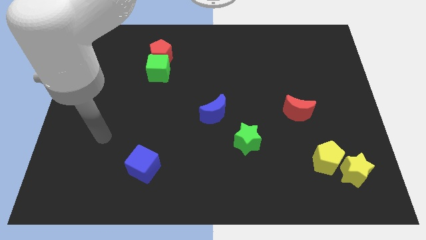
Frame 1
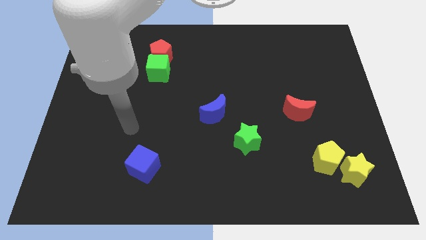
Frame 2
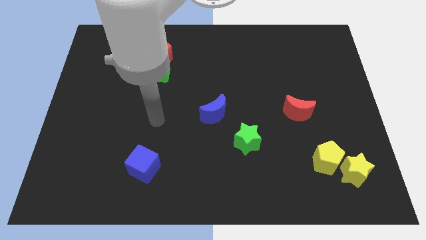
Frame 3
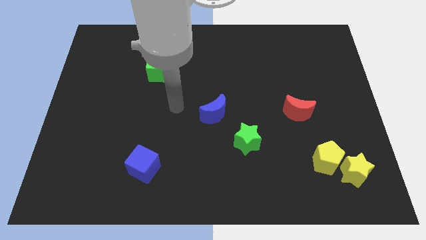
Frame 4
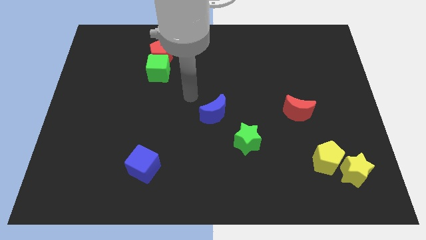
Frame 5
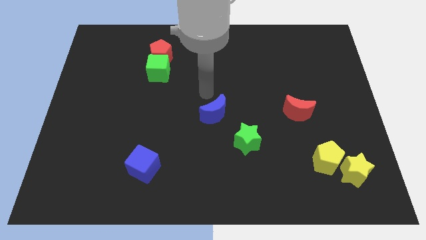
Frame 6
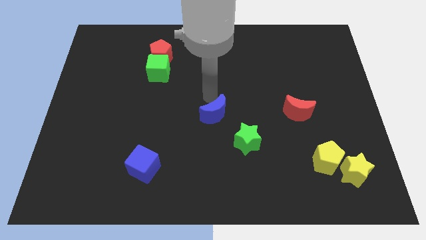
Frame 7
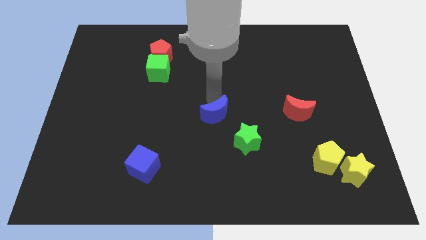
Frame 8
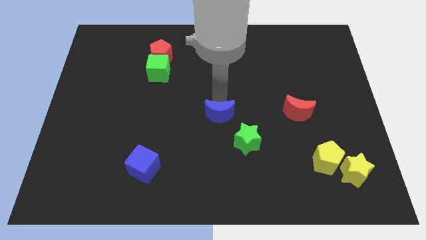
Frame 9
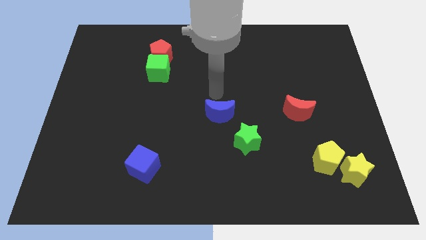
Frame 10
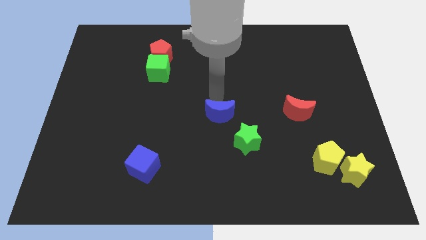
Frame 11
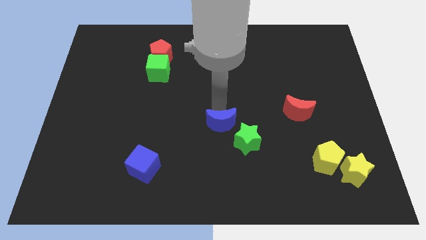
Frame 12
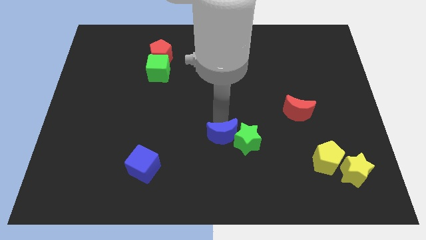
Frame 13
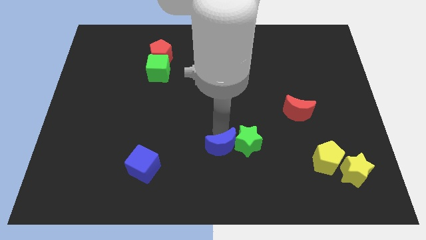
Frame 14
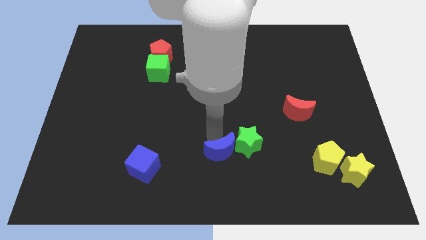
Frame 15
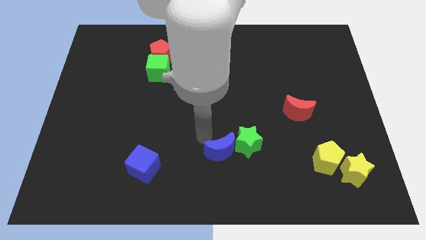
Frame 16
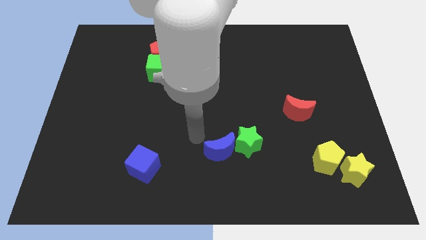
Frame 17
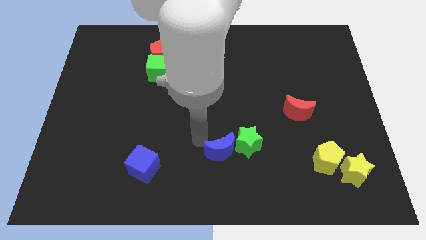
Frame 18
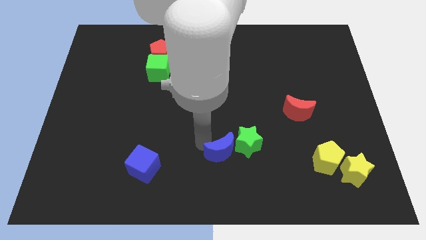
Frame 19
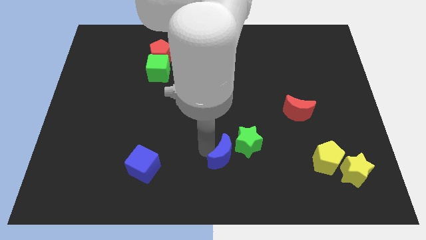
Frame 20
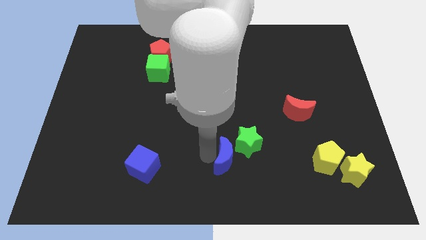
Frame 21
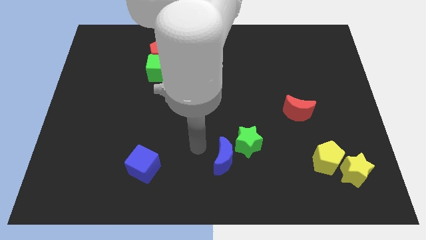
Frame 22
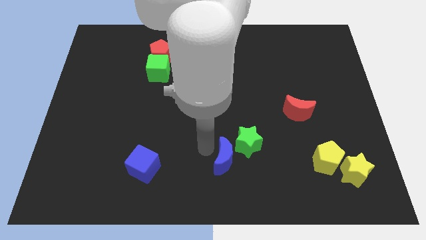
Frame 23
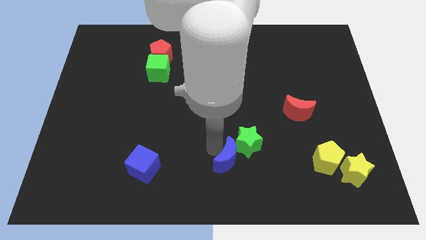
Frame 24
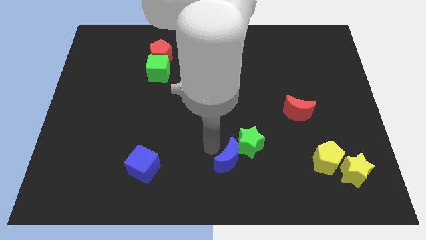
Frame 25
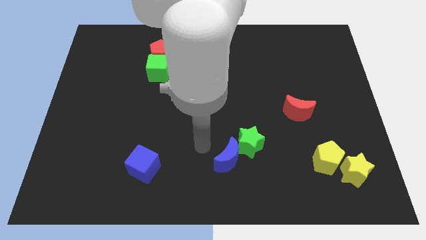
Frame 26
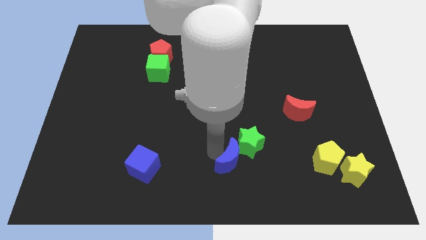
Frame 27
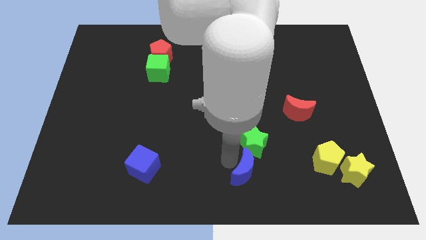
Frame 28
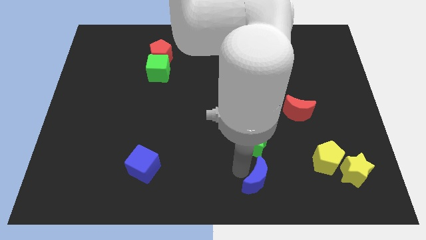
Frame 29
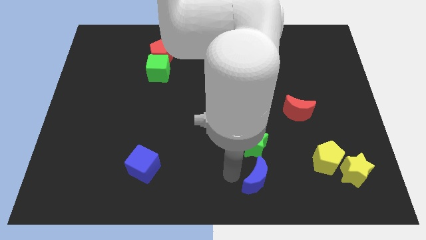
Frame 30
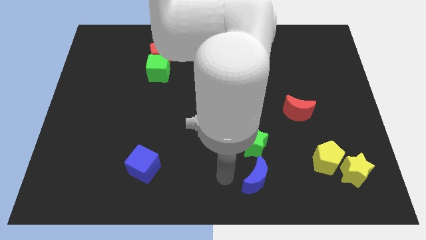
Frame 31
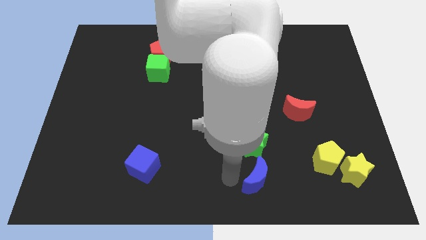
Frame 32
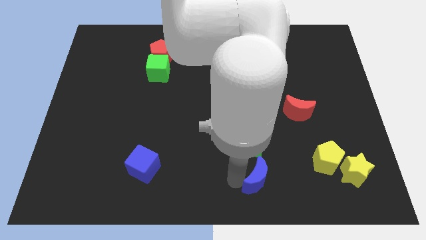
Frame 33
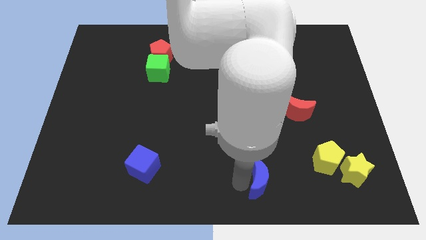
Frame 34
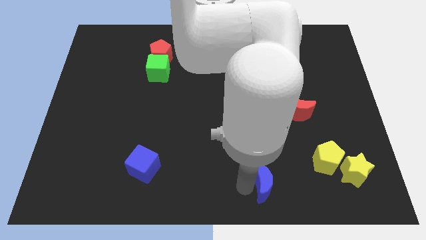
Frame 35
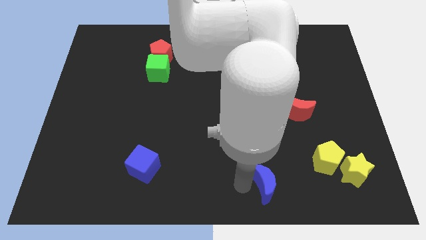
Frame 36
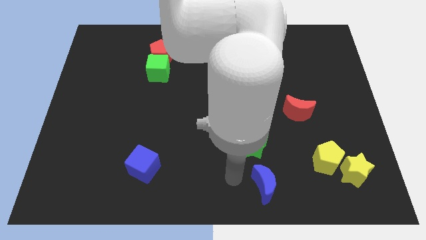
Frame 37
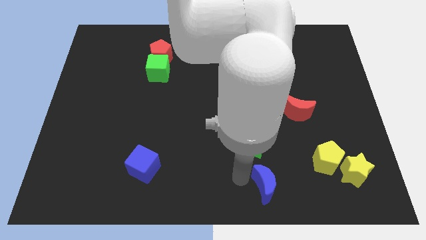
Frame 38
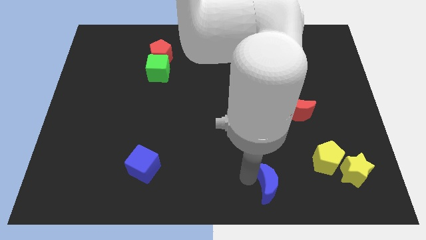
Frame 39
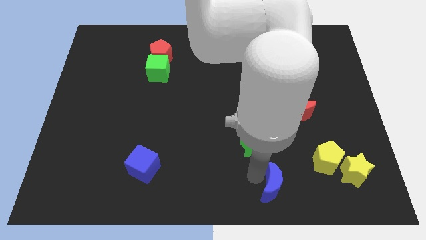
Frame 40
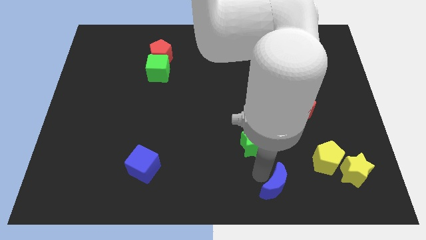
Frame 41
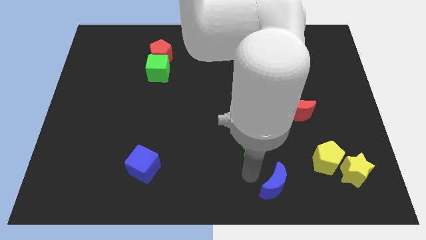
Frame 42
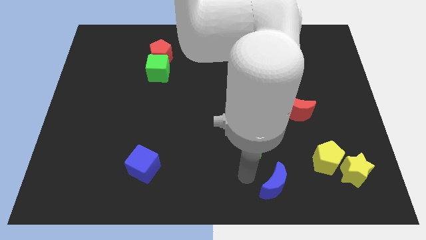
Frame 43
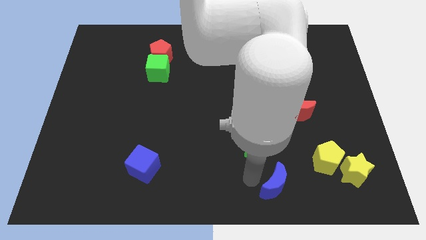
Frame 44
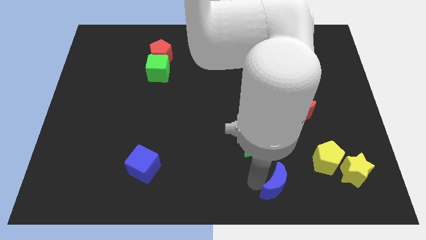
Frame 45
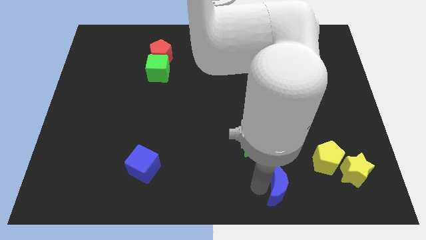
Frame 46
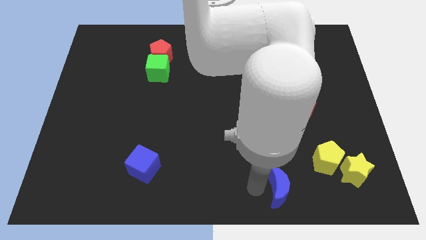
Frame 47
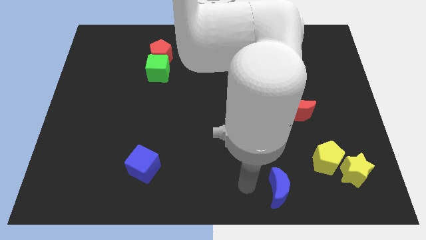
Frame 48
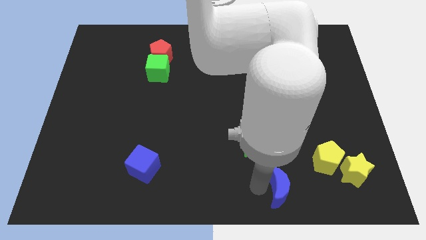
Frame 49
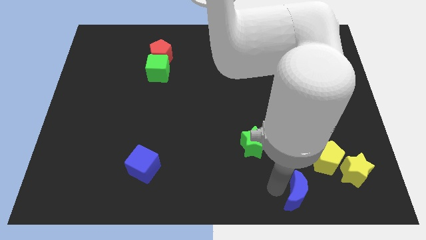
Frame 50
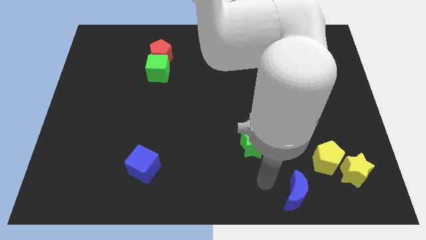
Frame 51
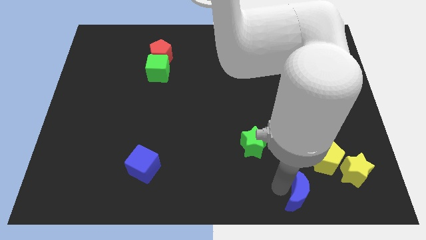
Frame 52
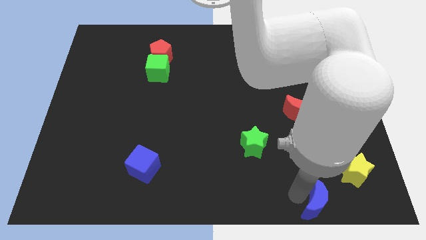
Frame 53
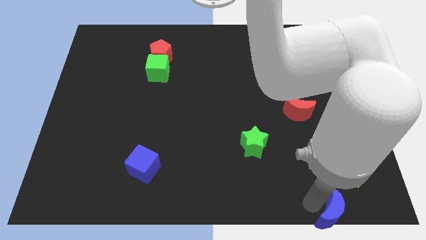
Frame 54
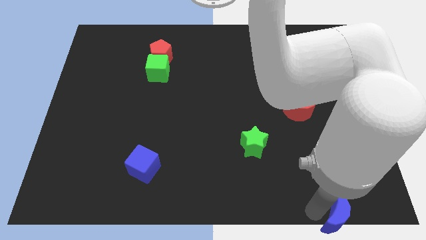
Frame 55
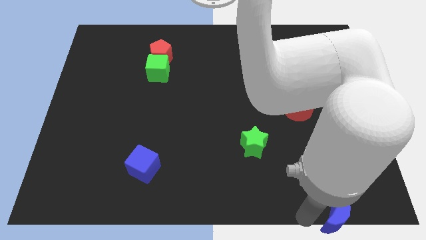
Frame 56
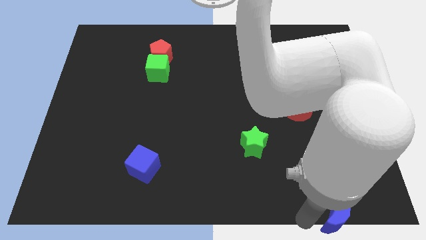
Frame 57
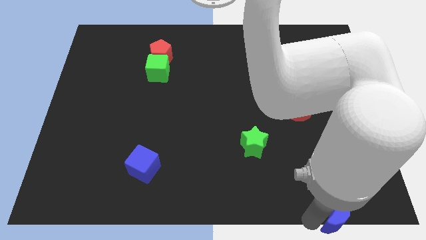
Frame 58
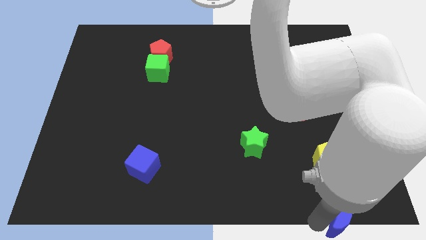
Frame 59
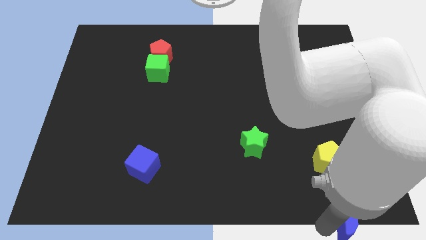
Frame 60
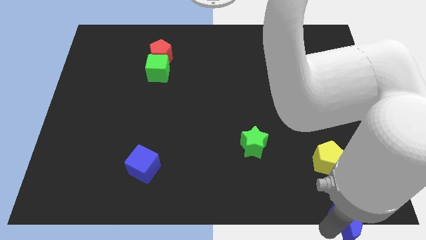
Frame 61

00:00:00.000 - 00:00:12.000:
move the blue moon to the bottom right corner
